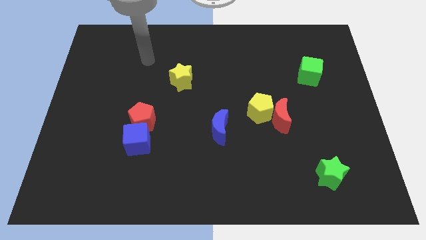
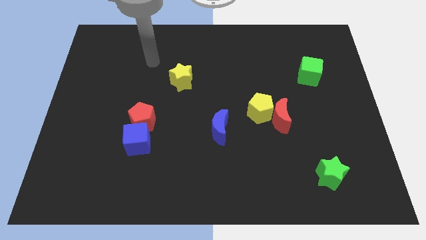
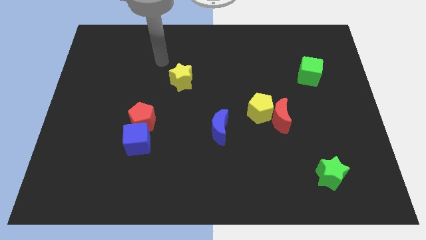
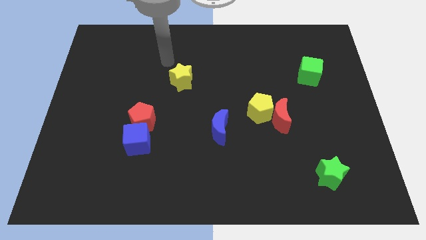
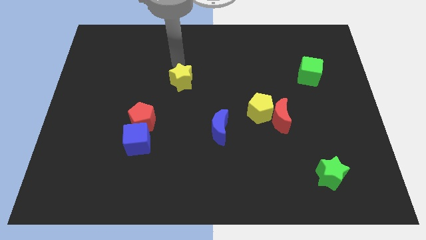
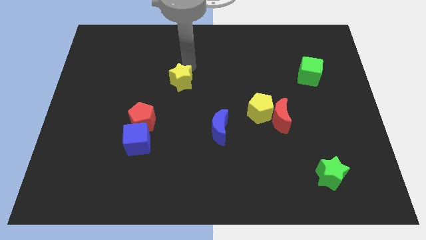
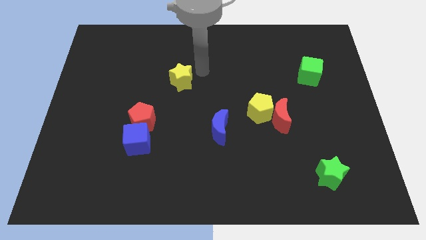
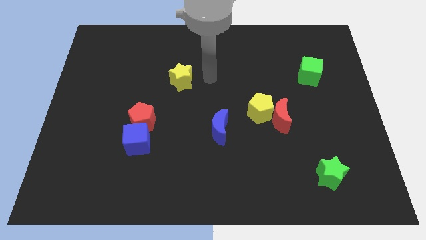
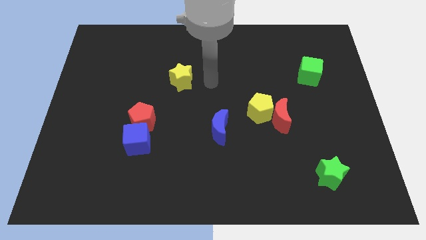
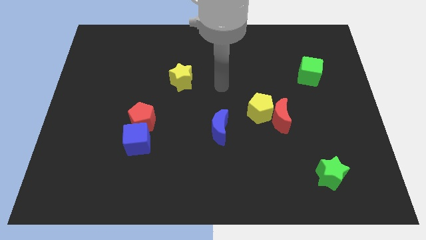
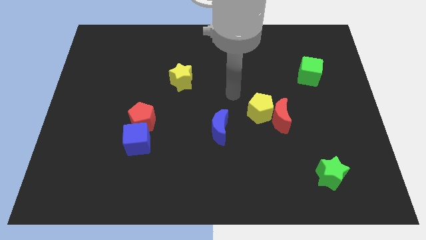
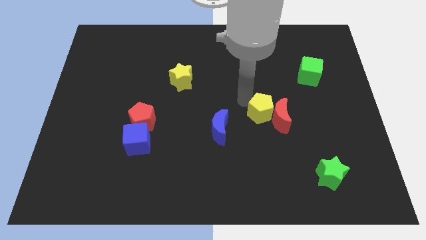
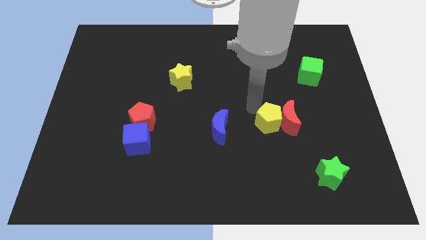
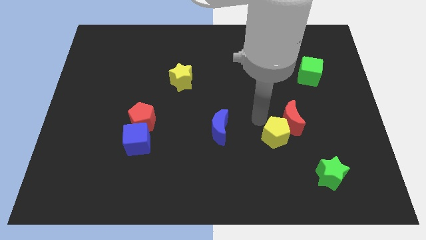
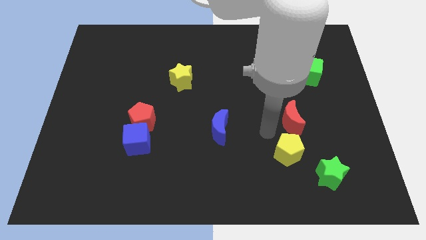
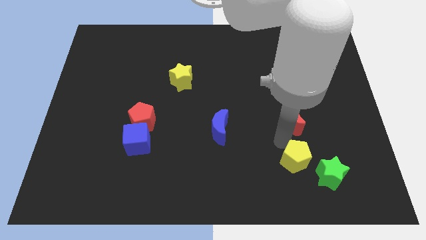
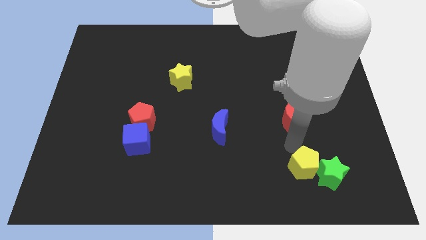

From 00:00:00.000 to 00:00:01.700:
pull the red moon apart from the yellow pentagon

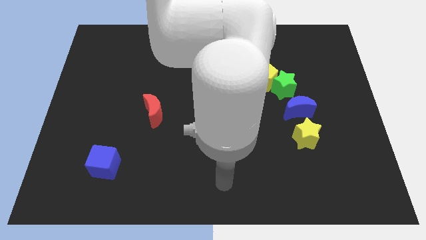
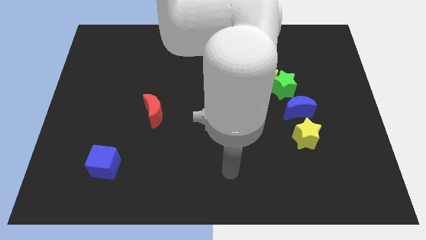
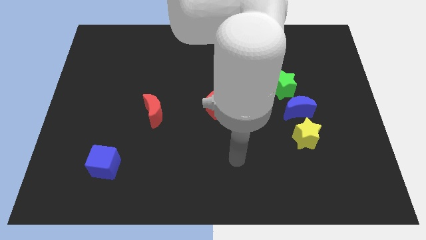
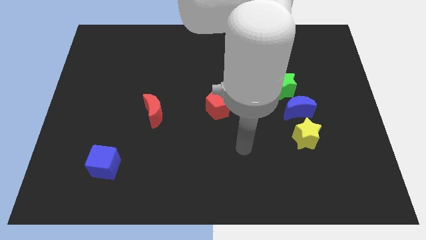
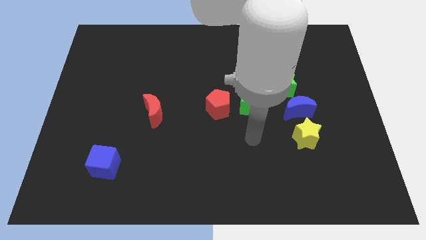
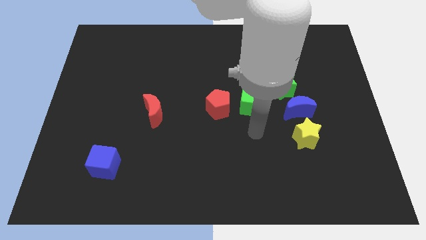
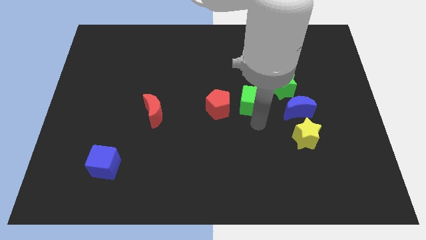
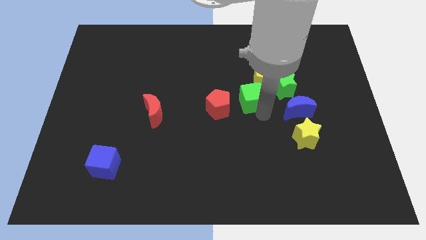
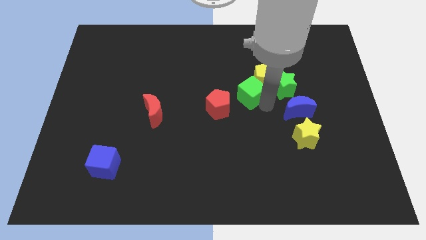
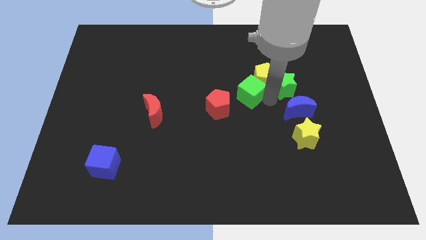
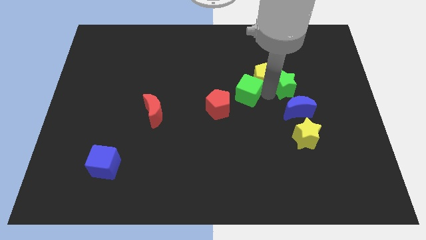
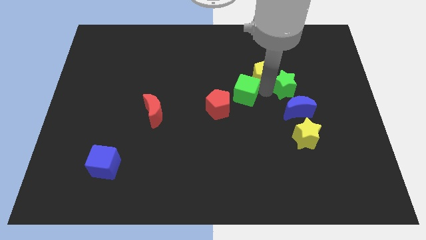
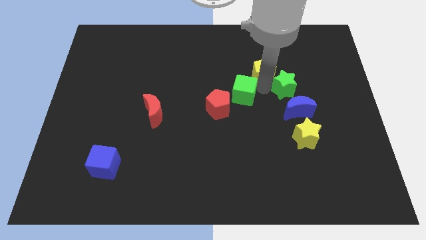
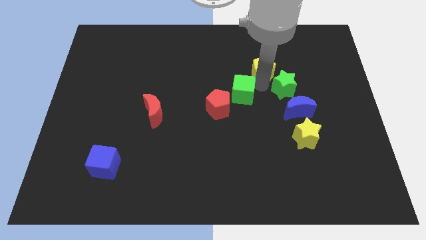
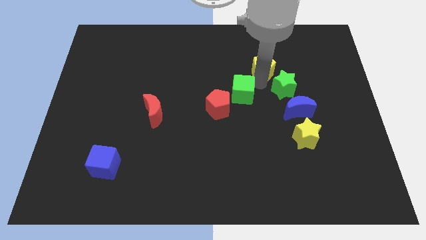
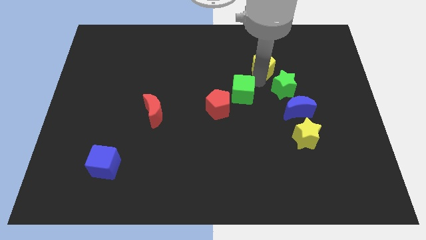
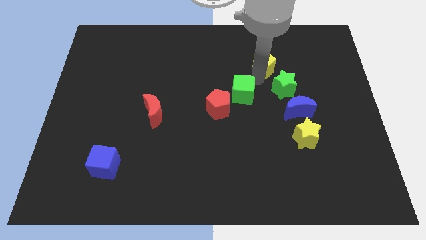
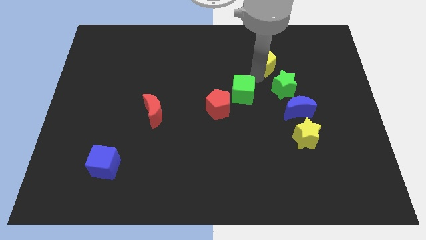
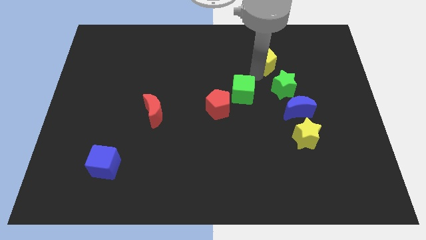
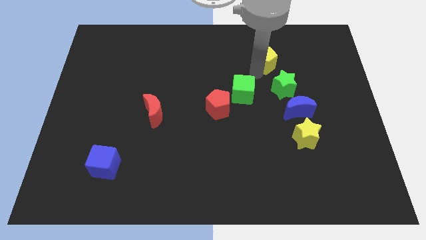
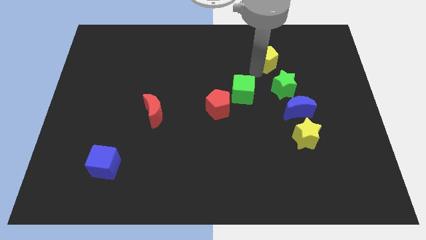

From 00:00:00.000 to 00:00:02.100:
separate the yellow pentagon from the green star and green cube

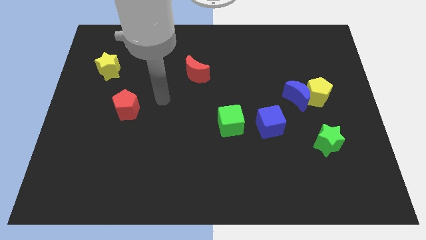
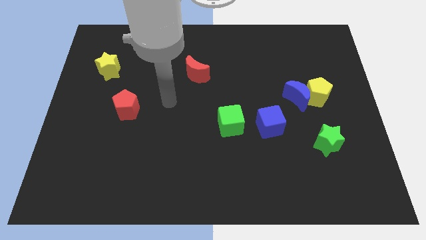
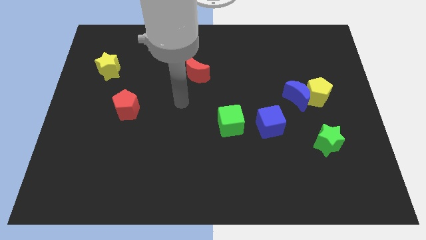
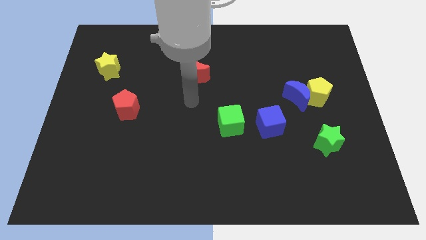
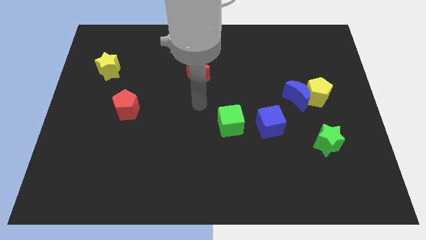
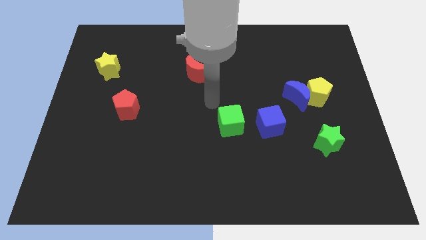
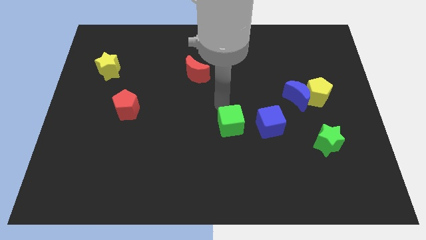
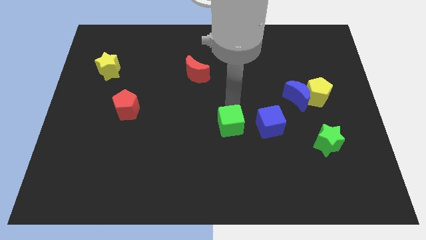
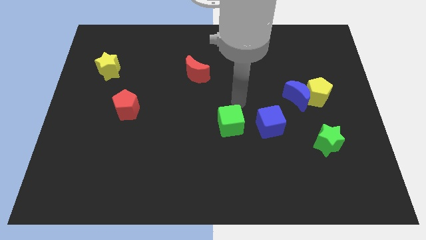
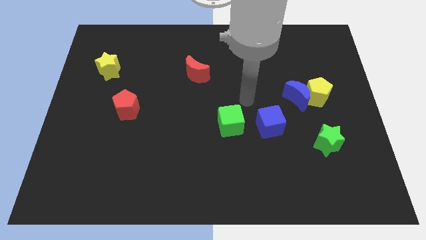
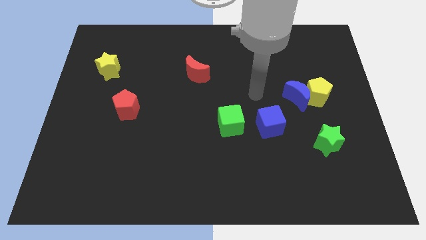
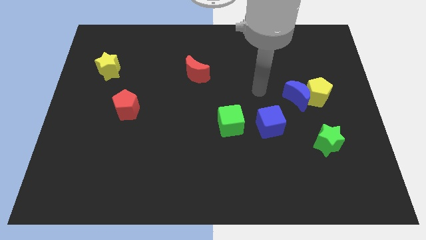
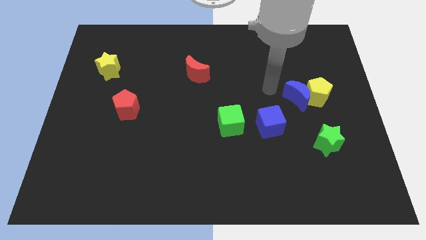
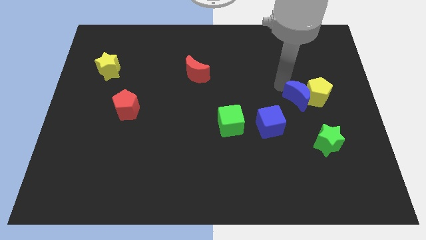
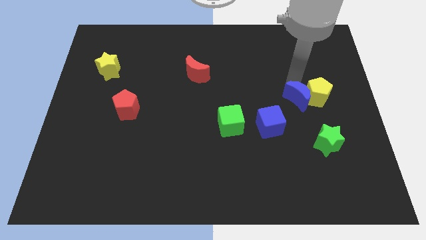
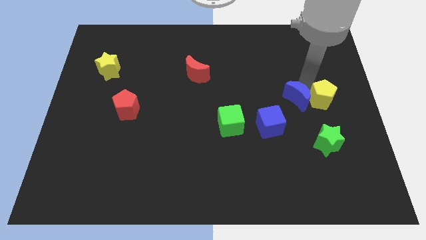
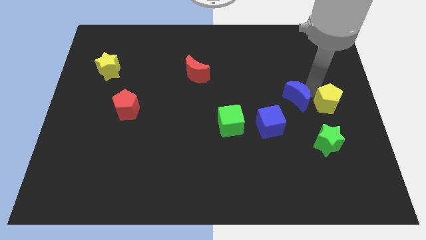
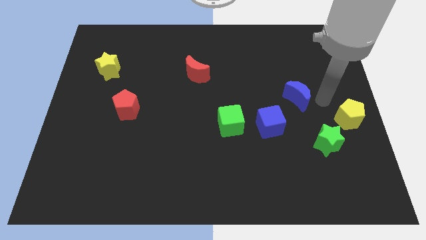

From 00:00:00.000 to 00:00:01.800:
separate the blue moon from the yellow pentagon

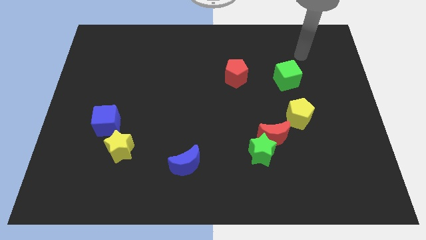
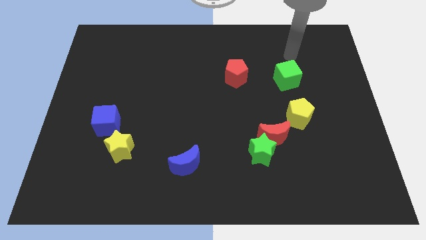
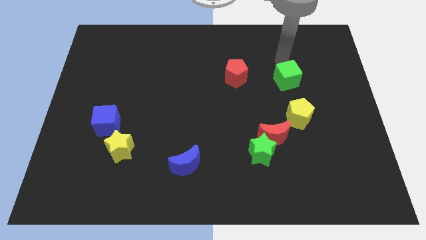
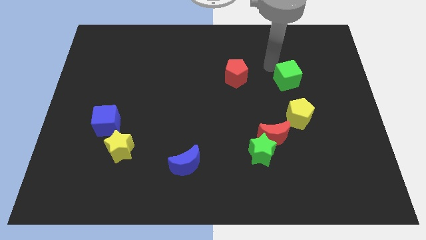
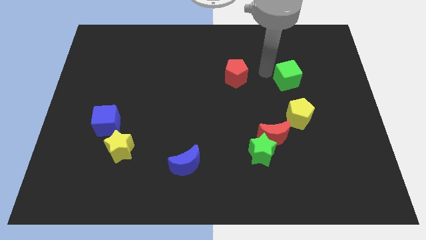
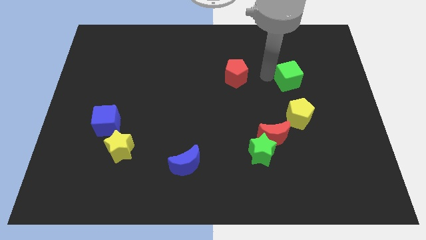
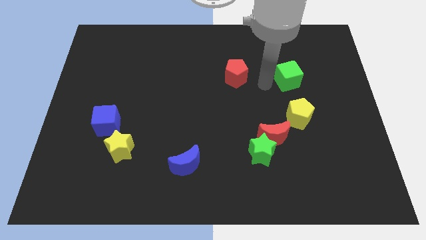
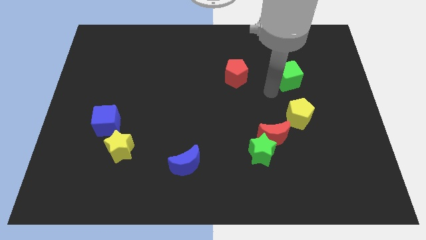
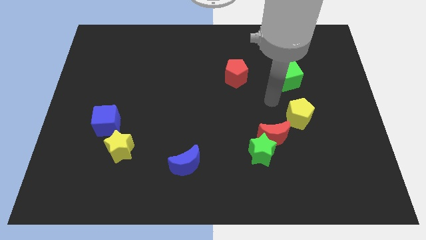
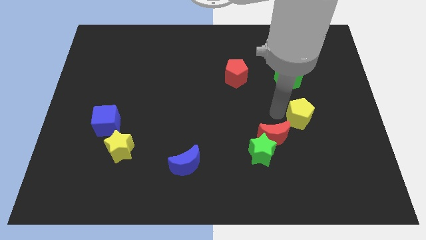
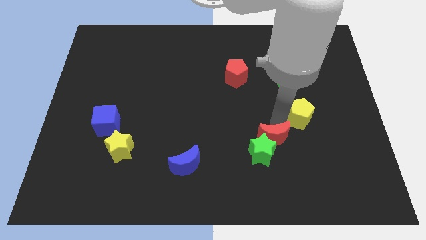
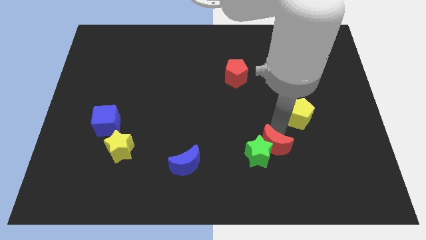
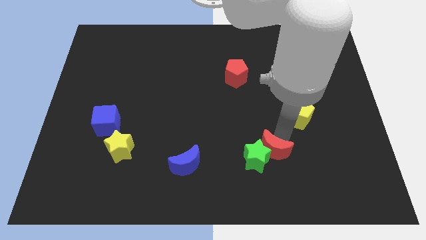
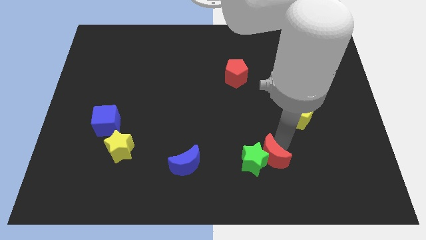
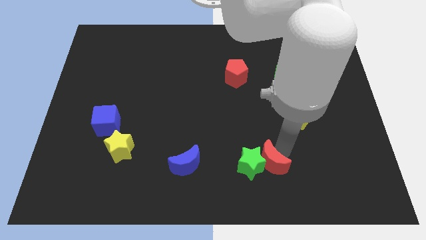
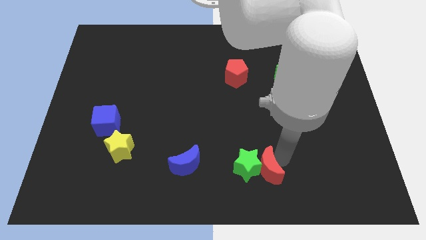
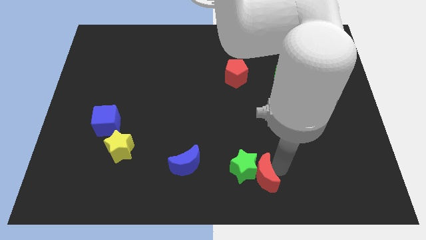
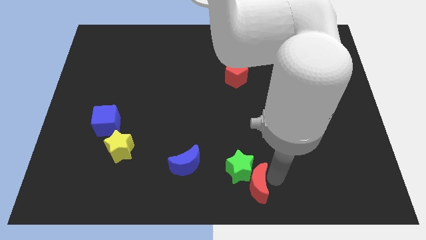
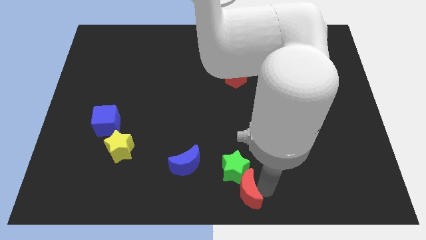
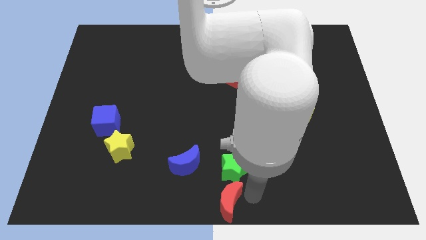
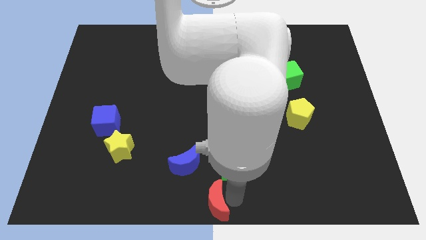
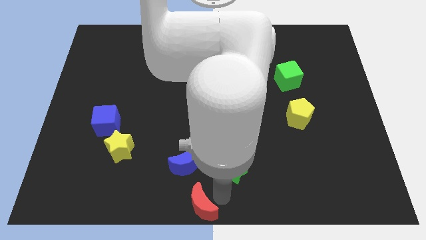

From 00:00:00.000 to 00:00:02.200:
move the green star away from the red moon

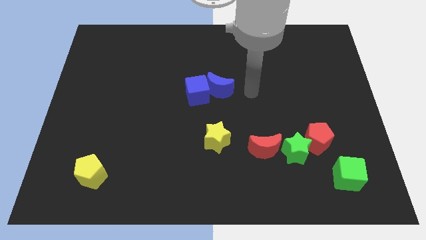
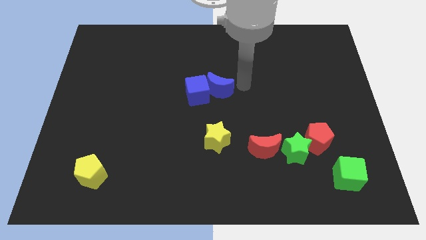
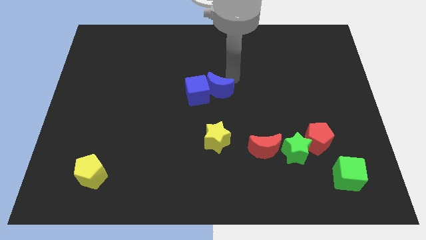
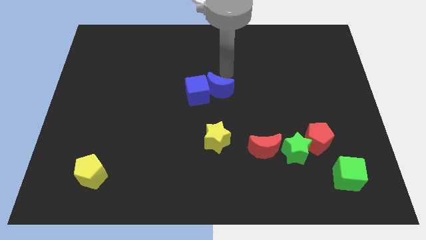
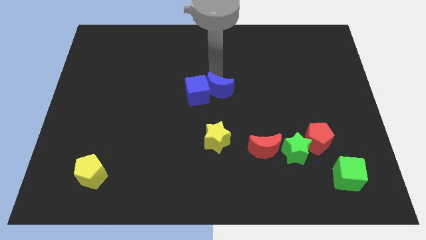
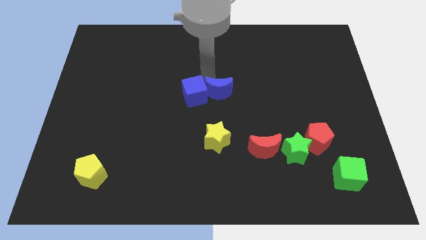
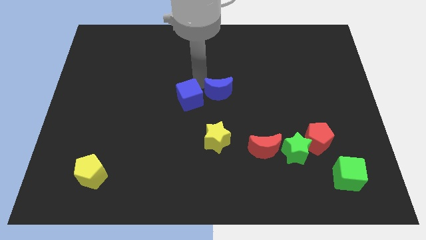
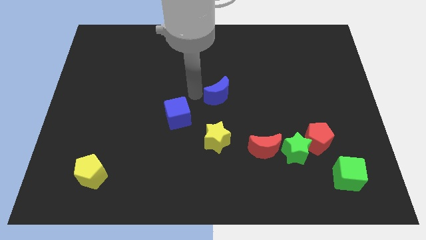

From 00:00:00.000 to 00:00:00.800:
pull the blue moon apart from the blue cube

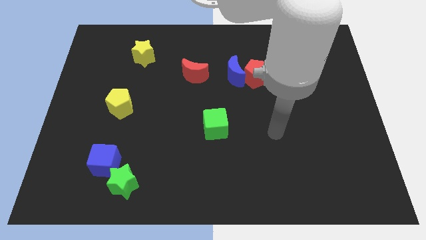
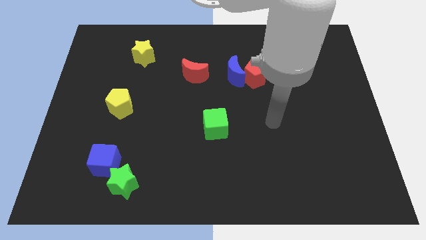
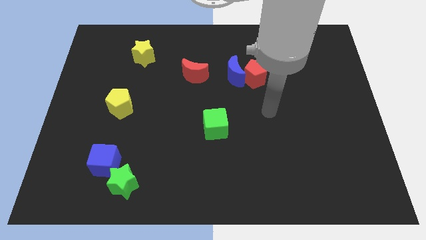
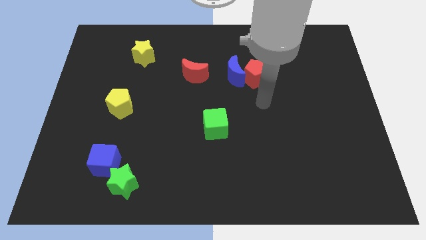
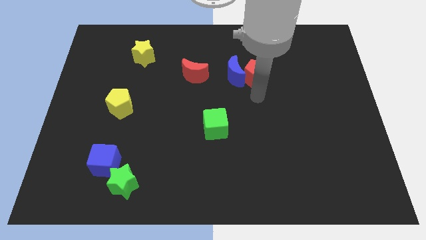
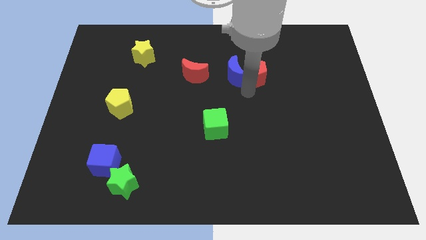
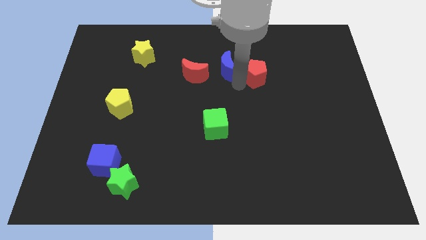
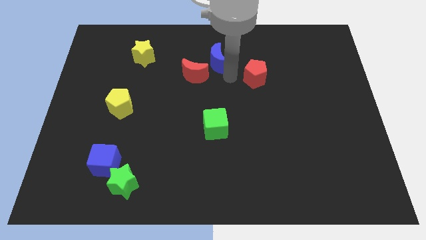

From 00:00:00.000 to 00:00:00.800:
separate the red pentagon from the blue moon
